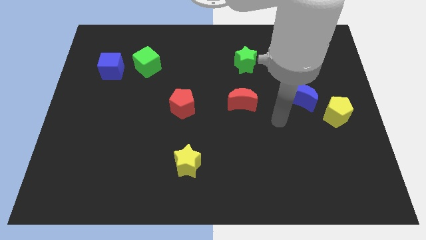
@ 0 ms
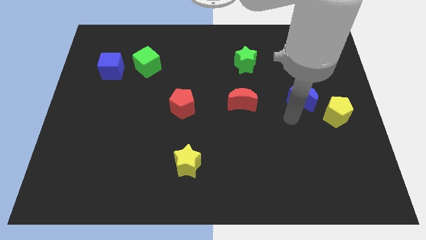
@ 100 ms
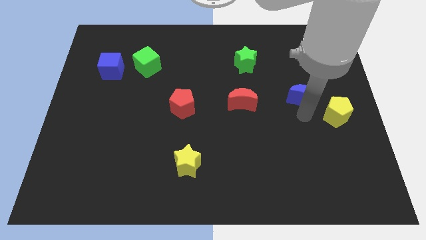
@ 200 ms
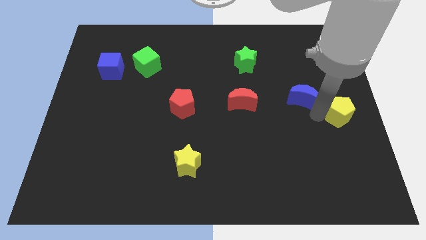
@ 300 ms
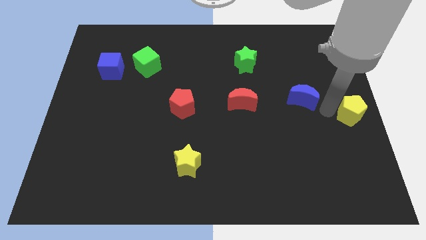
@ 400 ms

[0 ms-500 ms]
pull the blue moon apart from the yellow pentagon

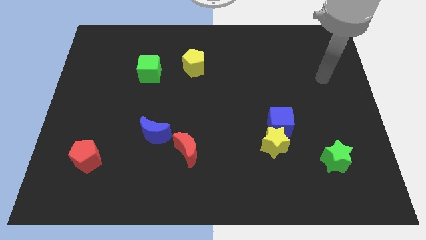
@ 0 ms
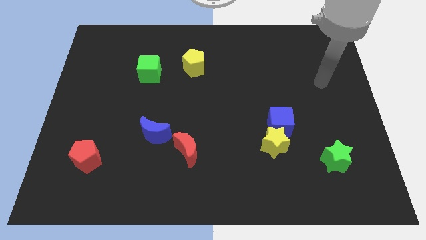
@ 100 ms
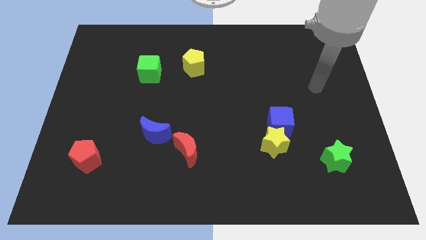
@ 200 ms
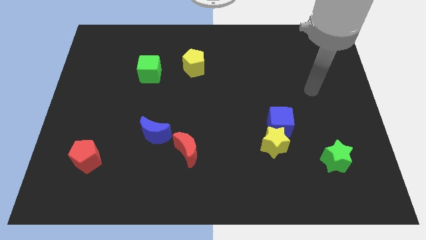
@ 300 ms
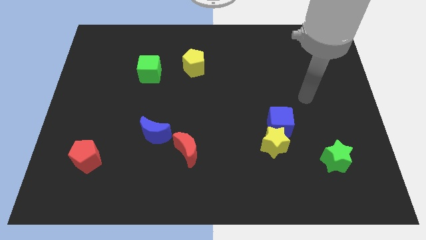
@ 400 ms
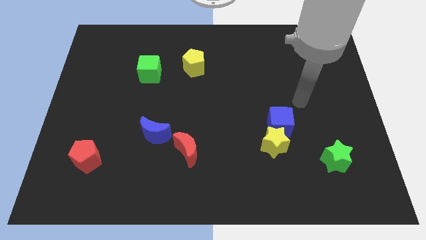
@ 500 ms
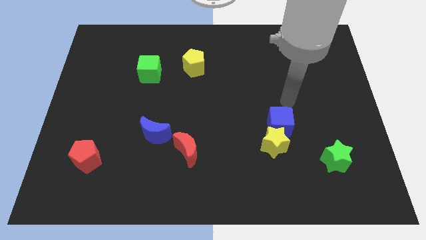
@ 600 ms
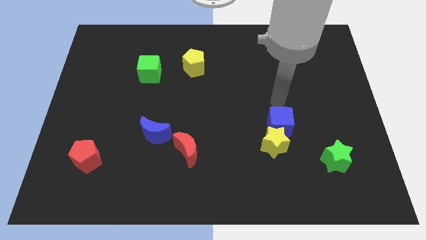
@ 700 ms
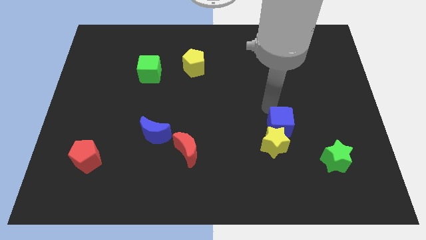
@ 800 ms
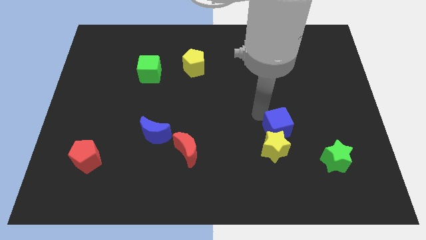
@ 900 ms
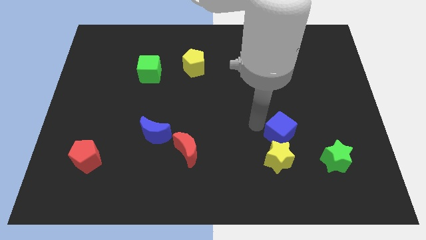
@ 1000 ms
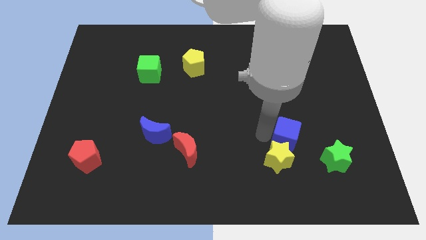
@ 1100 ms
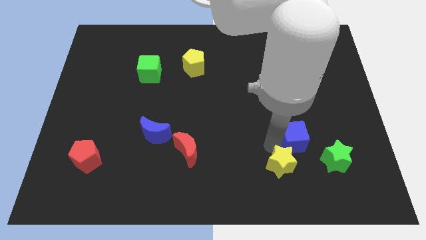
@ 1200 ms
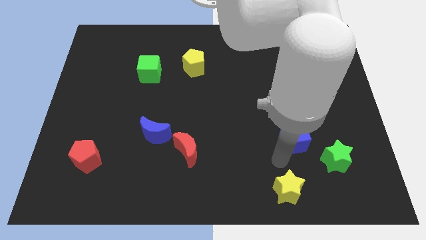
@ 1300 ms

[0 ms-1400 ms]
move the blue cube away from the yellow star

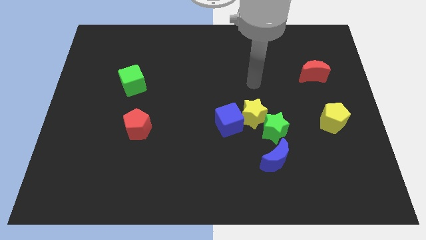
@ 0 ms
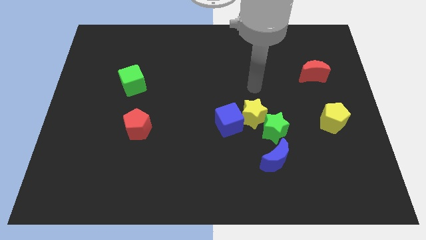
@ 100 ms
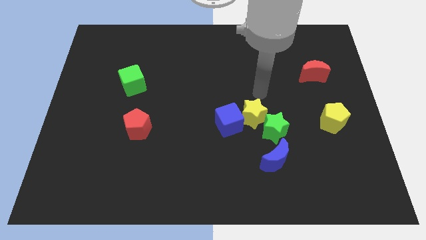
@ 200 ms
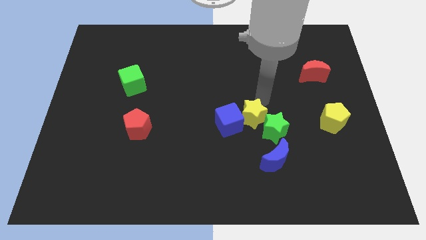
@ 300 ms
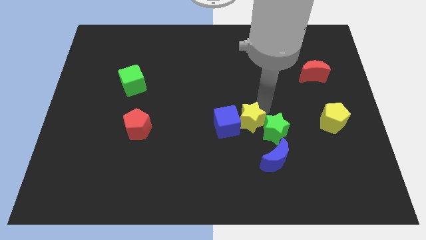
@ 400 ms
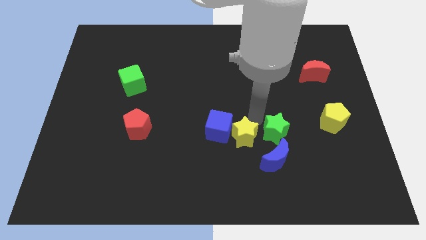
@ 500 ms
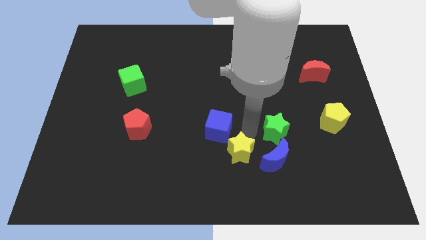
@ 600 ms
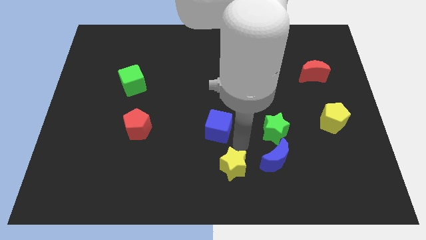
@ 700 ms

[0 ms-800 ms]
separate the blue cube from the yellow star

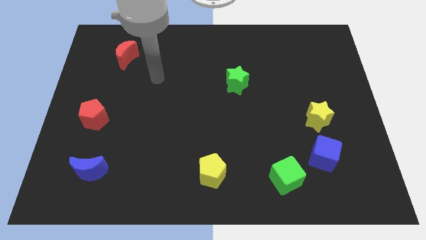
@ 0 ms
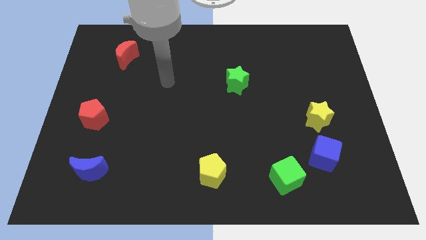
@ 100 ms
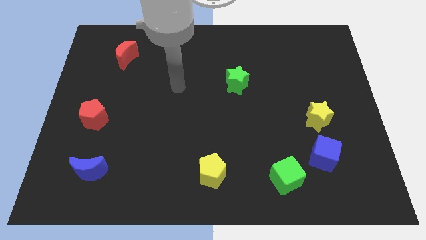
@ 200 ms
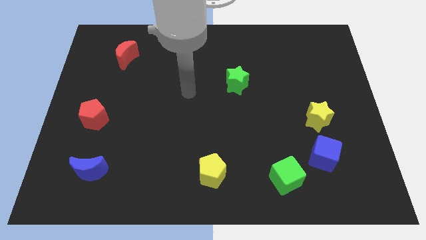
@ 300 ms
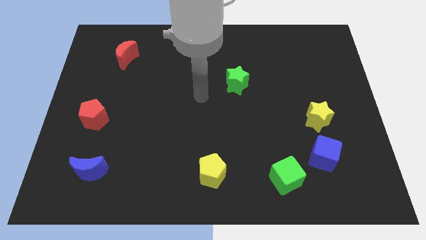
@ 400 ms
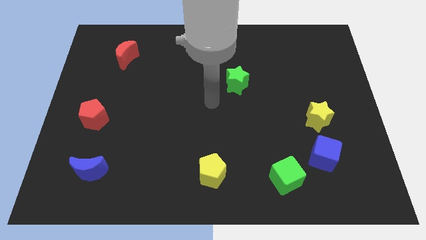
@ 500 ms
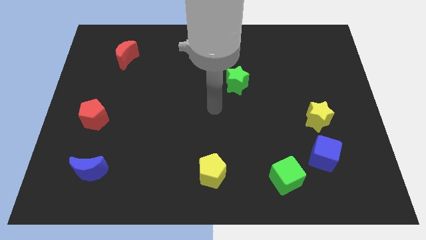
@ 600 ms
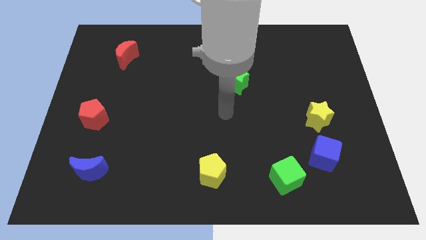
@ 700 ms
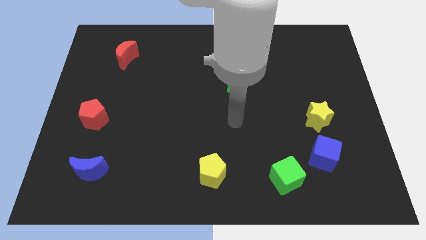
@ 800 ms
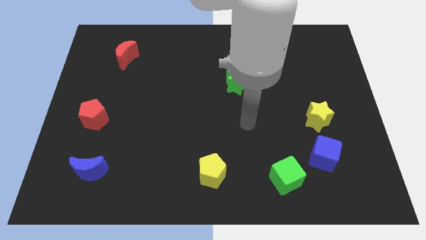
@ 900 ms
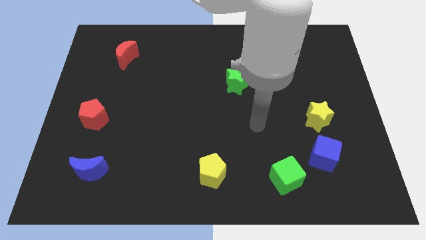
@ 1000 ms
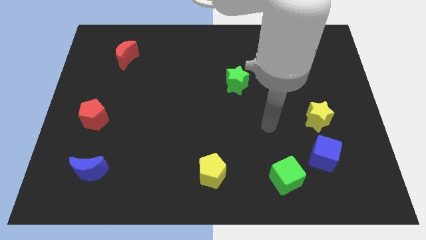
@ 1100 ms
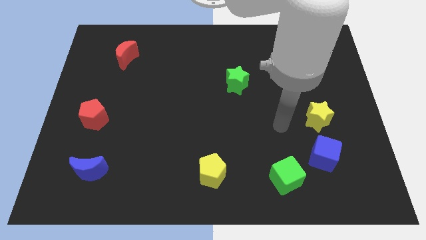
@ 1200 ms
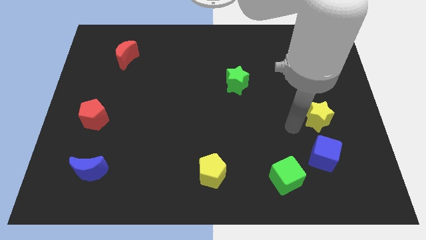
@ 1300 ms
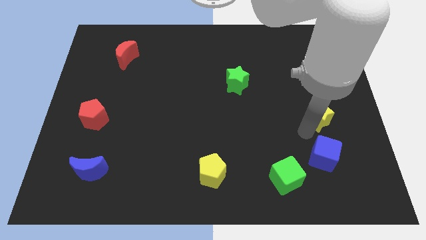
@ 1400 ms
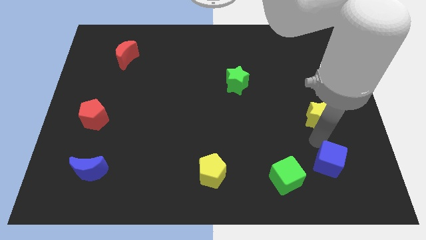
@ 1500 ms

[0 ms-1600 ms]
separate the yellow star from the blue cube

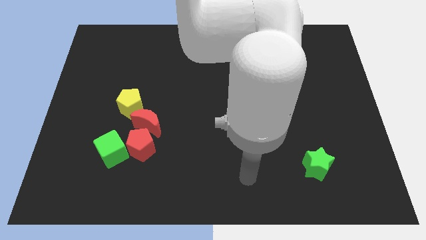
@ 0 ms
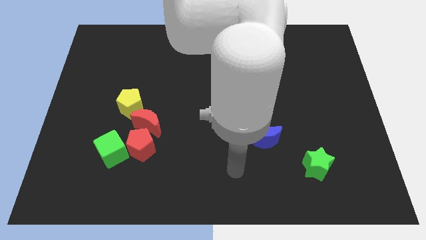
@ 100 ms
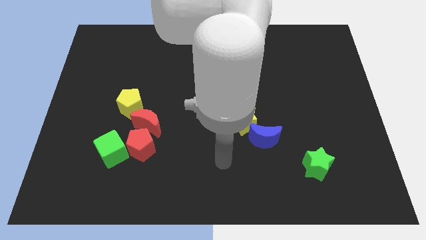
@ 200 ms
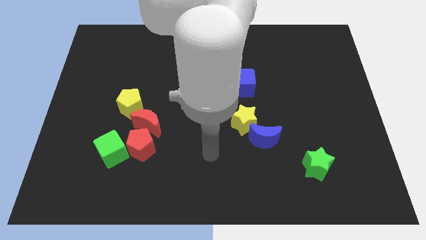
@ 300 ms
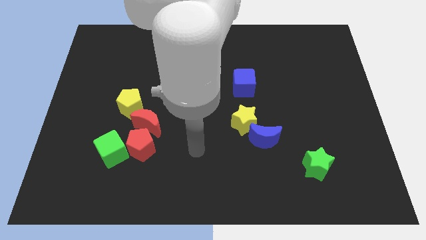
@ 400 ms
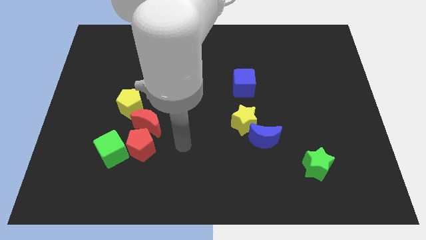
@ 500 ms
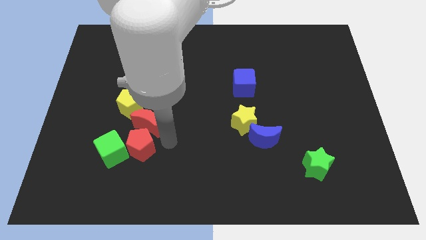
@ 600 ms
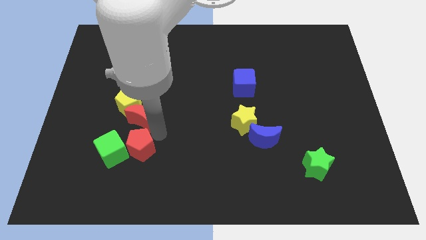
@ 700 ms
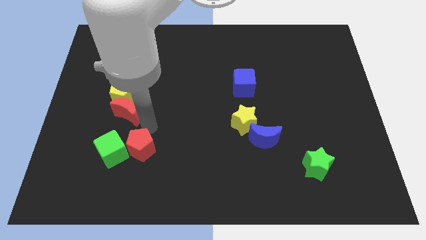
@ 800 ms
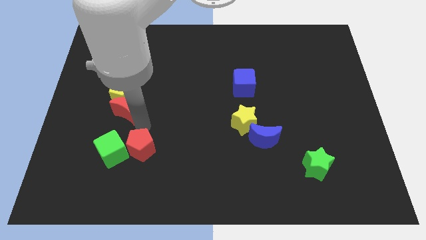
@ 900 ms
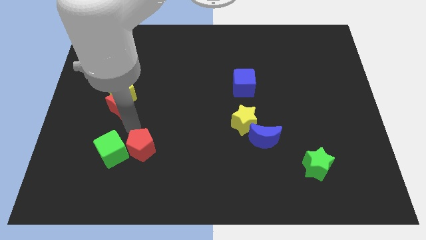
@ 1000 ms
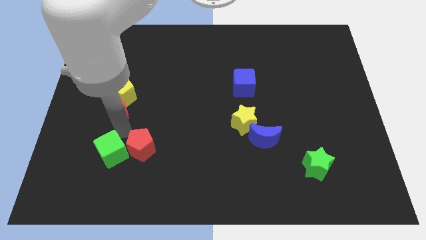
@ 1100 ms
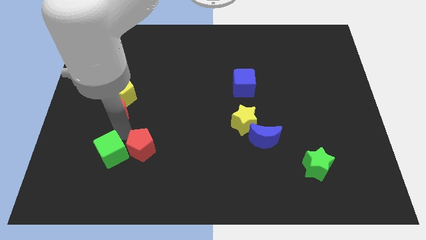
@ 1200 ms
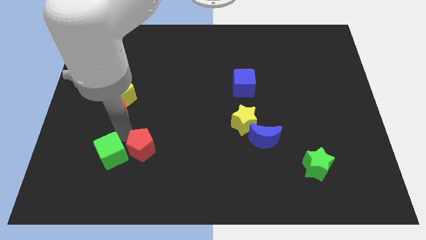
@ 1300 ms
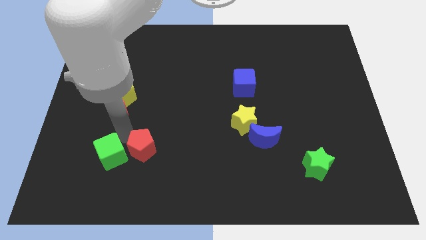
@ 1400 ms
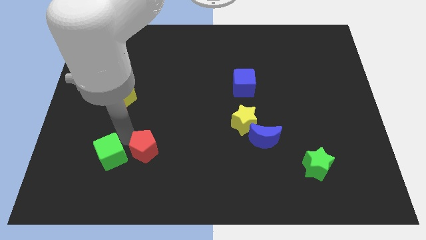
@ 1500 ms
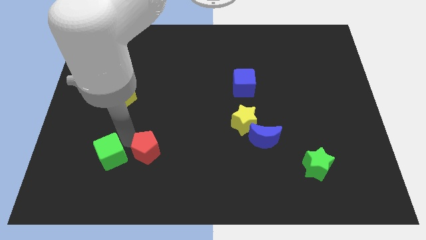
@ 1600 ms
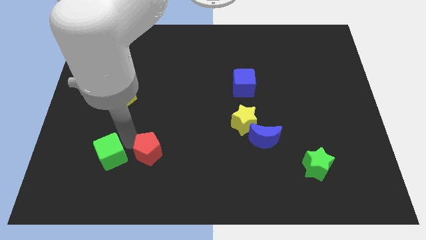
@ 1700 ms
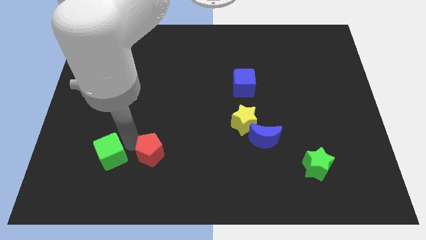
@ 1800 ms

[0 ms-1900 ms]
move the red pentagon away from the red moon and green cube

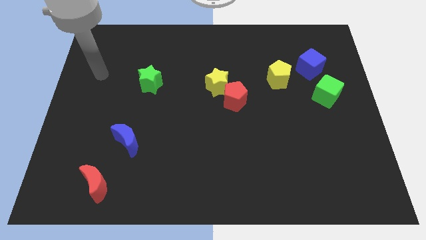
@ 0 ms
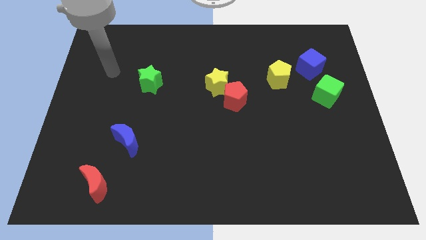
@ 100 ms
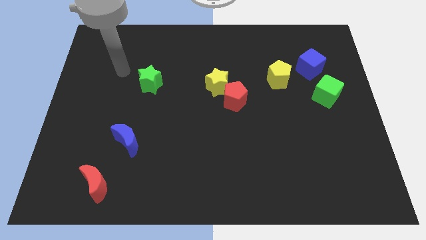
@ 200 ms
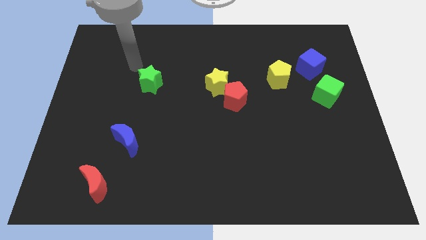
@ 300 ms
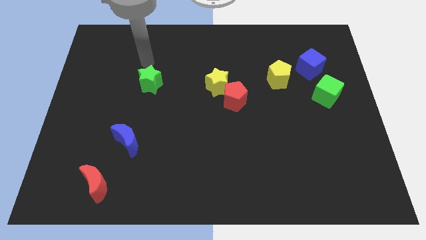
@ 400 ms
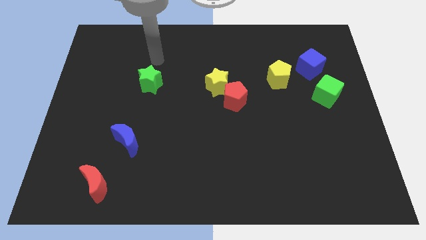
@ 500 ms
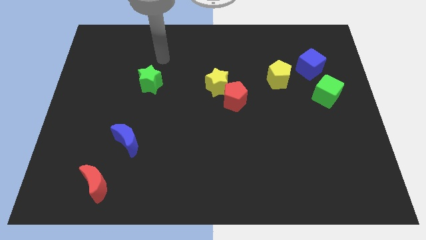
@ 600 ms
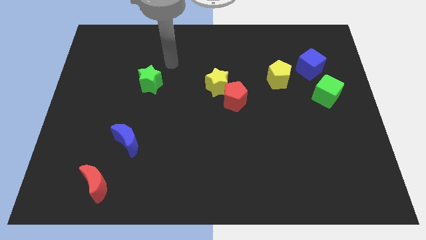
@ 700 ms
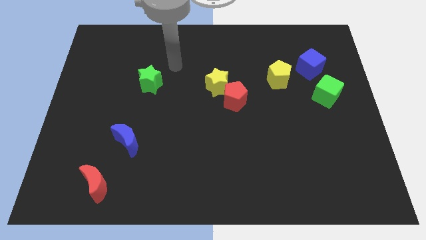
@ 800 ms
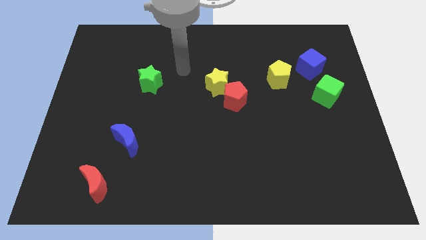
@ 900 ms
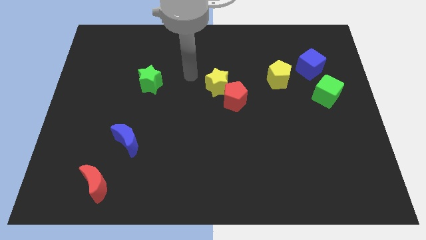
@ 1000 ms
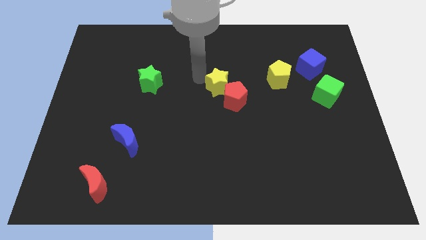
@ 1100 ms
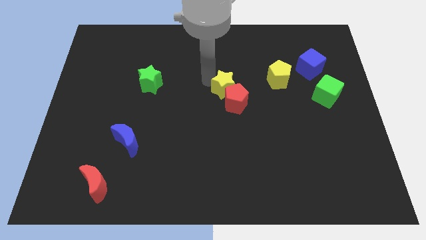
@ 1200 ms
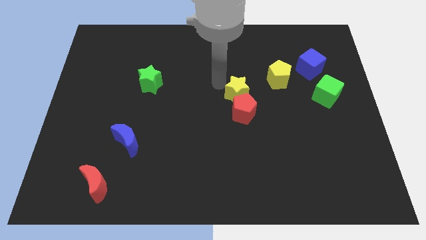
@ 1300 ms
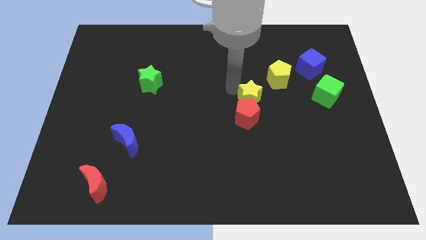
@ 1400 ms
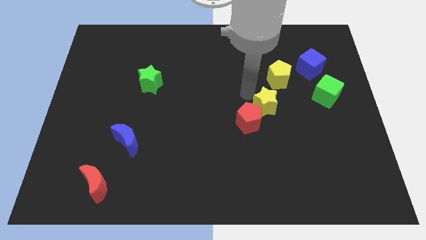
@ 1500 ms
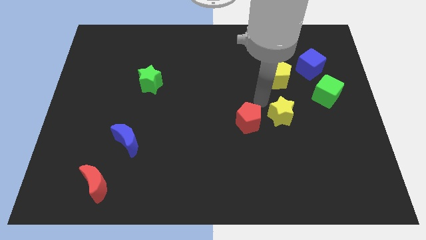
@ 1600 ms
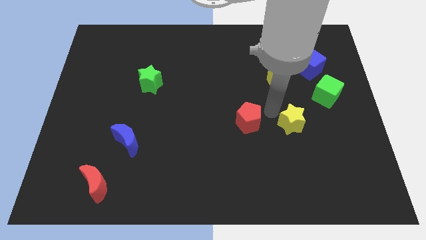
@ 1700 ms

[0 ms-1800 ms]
pull the red pentagon apart from the yellow star

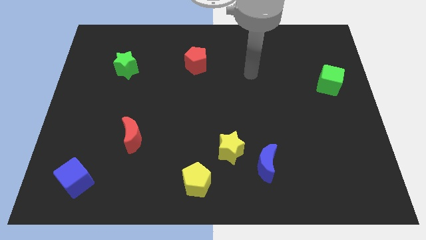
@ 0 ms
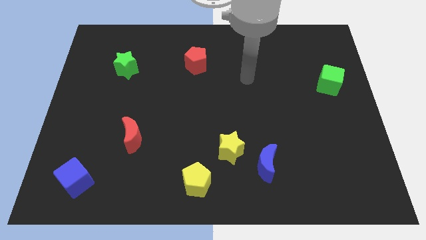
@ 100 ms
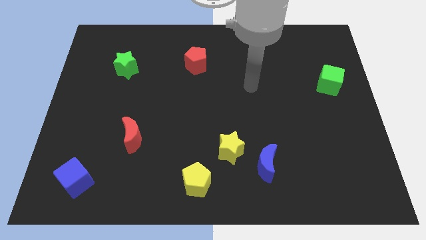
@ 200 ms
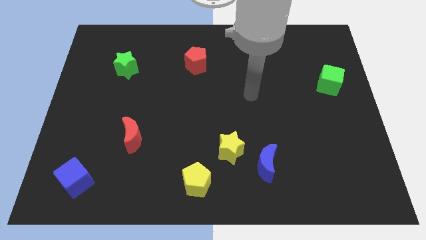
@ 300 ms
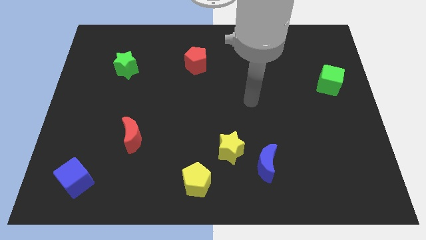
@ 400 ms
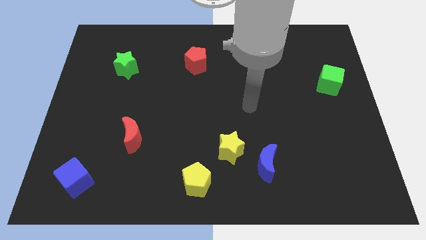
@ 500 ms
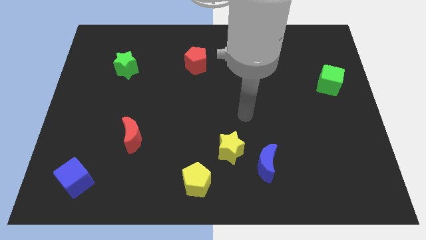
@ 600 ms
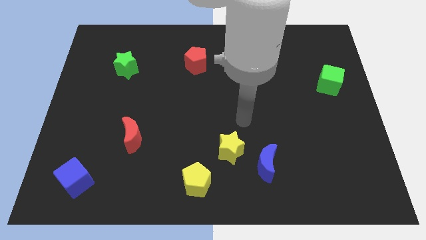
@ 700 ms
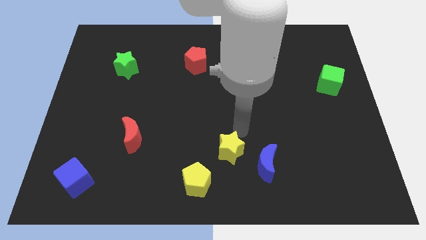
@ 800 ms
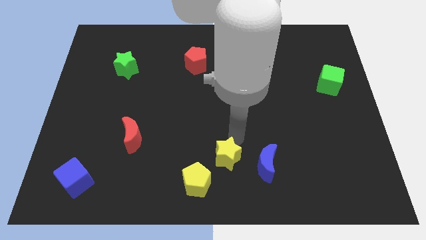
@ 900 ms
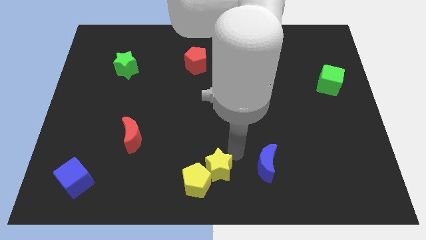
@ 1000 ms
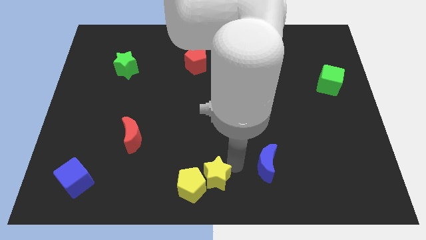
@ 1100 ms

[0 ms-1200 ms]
move the blue moon away from the yellow star

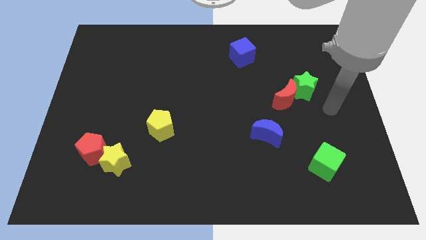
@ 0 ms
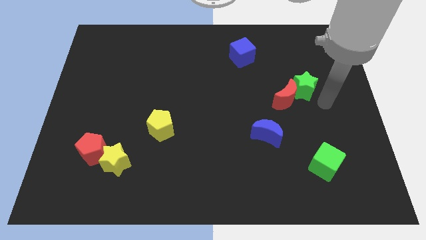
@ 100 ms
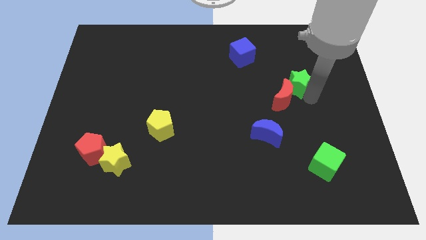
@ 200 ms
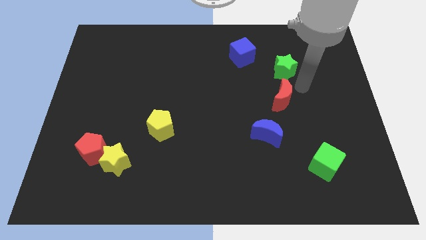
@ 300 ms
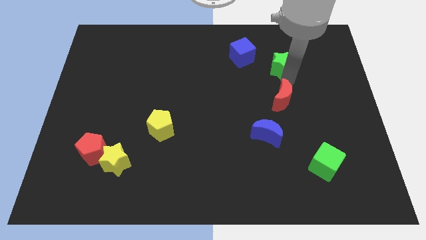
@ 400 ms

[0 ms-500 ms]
pull the red moon apart from the green star
